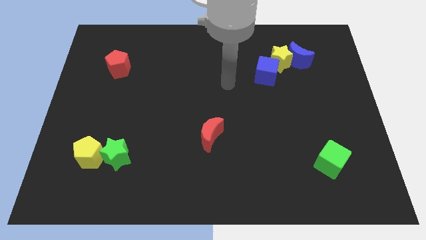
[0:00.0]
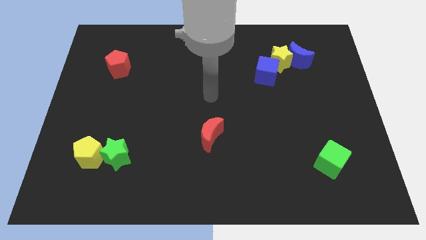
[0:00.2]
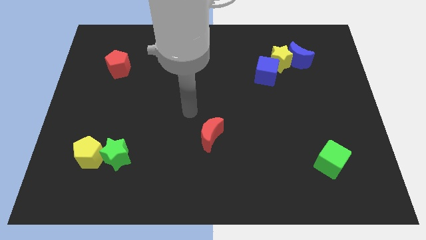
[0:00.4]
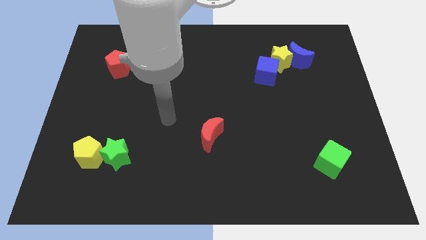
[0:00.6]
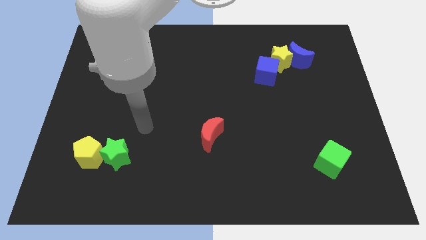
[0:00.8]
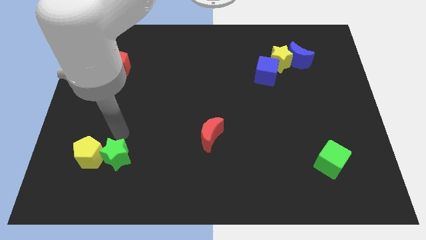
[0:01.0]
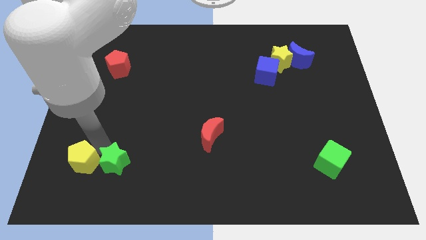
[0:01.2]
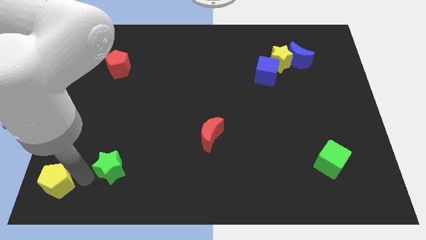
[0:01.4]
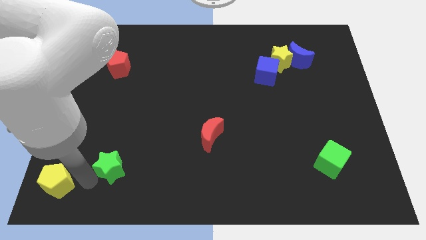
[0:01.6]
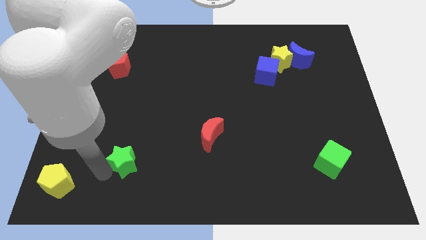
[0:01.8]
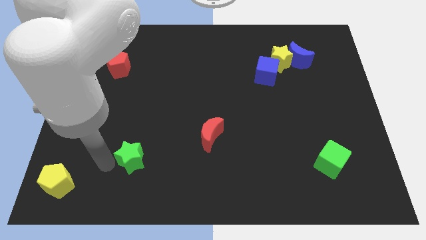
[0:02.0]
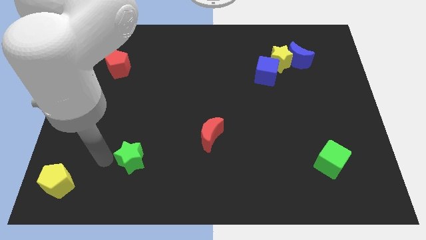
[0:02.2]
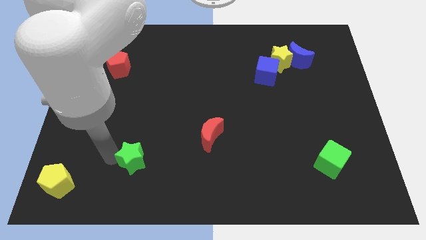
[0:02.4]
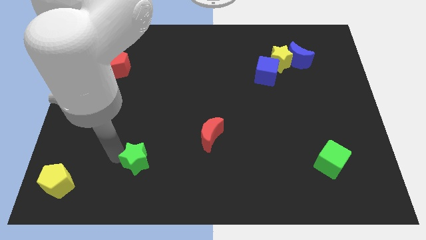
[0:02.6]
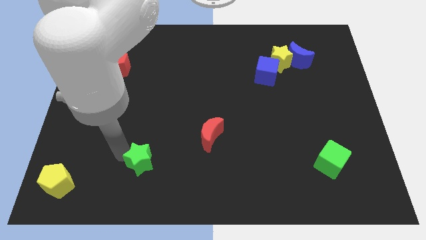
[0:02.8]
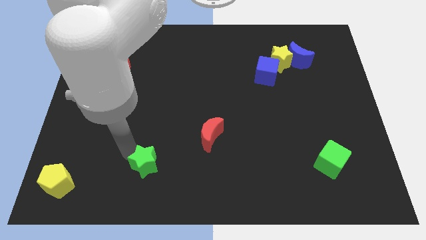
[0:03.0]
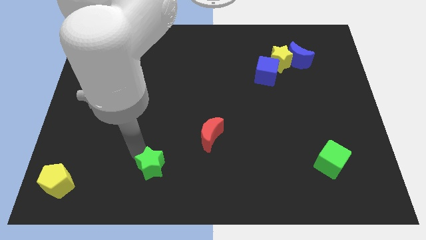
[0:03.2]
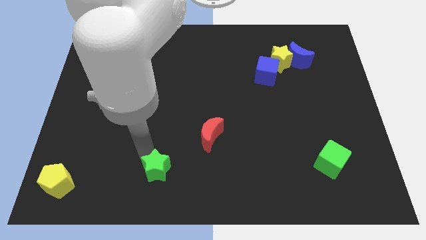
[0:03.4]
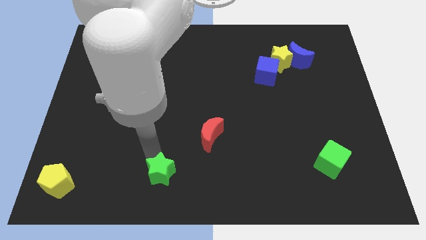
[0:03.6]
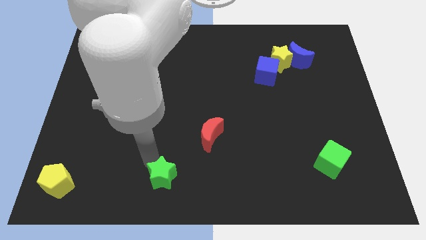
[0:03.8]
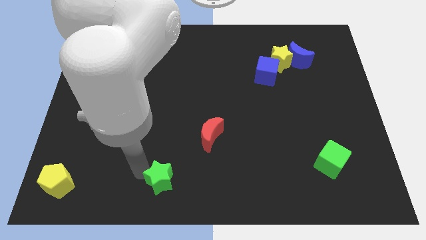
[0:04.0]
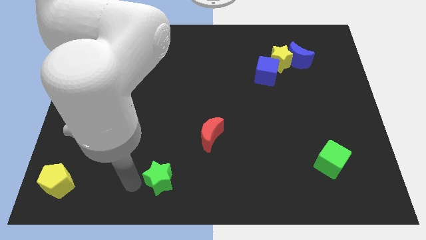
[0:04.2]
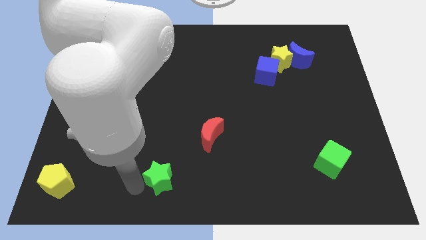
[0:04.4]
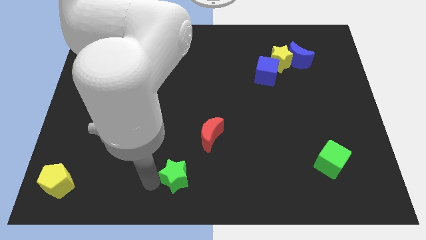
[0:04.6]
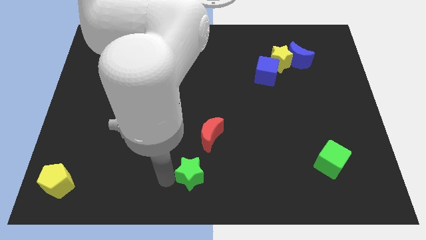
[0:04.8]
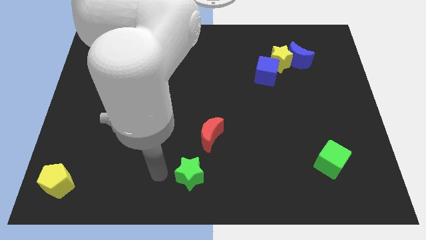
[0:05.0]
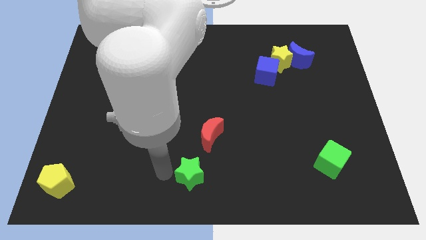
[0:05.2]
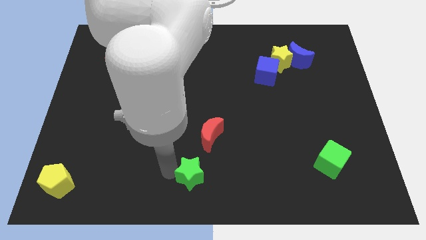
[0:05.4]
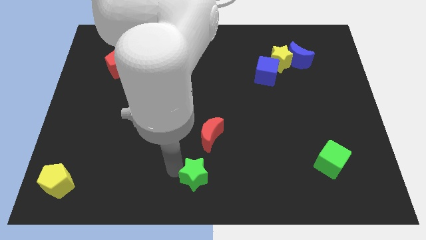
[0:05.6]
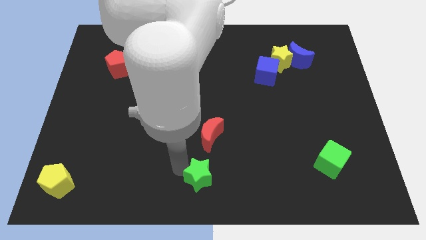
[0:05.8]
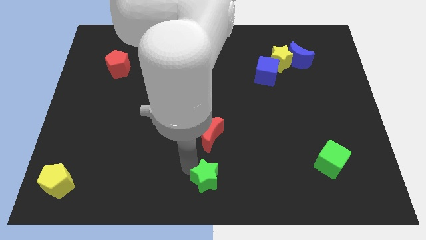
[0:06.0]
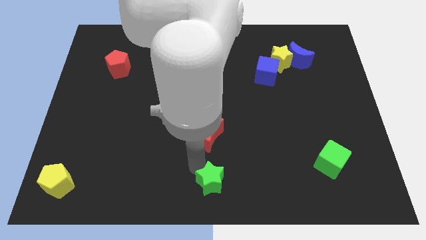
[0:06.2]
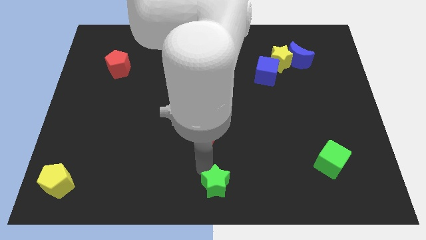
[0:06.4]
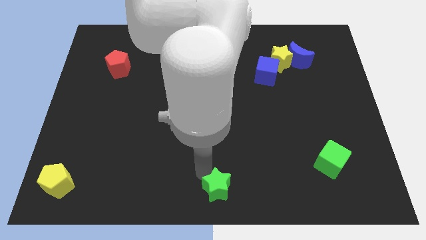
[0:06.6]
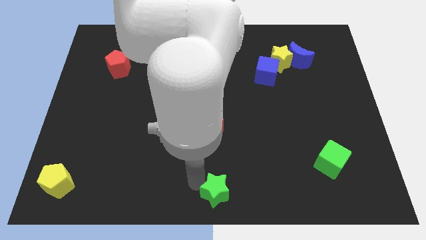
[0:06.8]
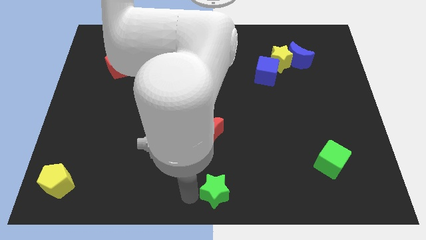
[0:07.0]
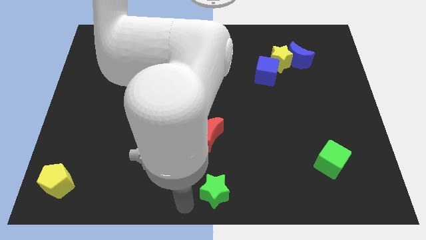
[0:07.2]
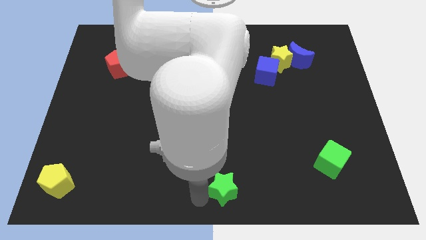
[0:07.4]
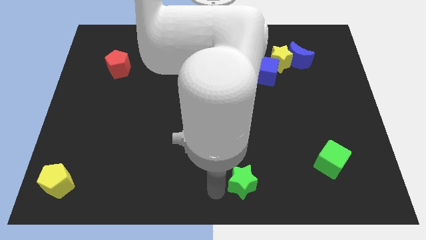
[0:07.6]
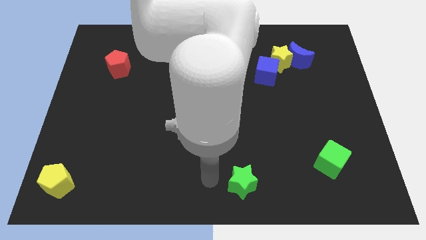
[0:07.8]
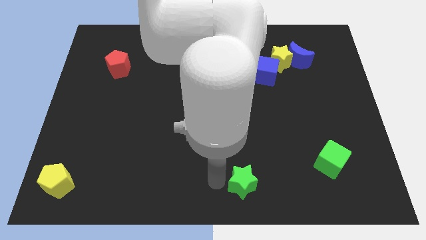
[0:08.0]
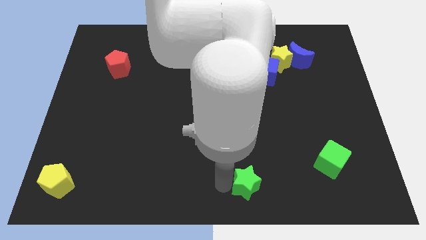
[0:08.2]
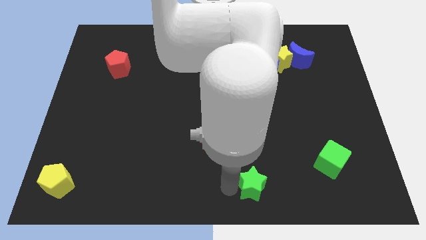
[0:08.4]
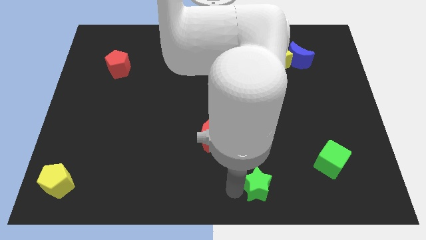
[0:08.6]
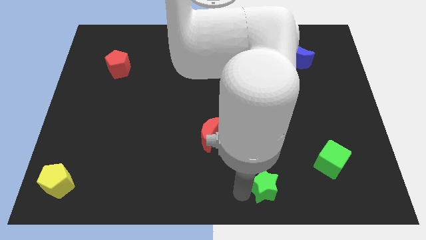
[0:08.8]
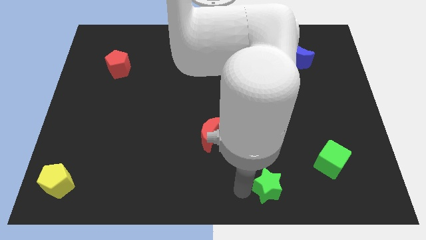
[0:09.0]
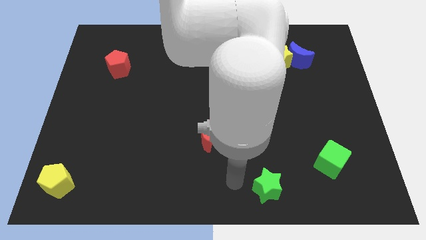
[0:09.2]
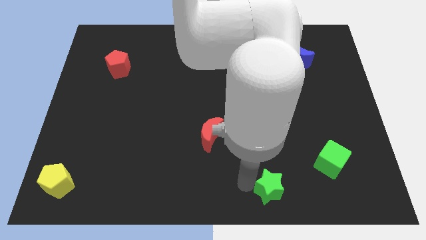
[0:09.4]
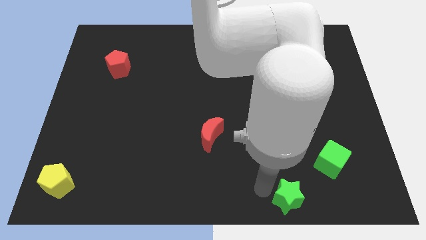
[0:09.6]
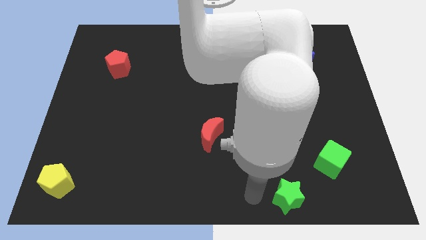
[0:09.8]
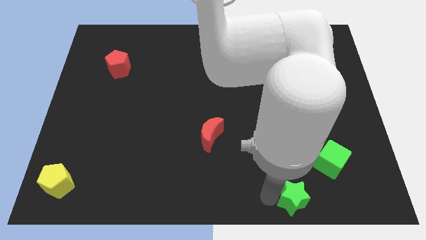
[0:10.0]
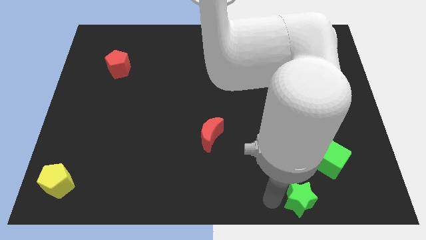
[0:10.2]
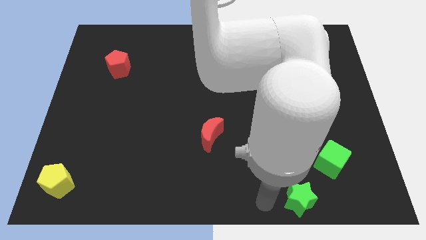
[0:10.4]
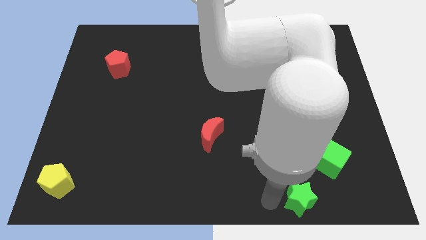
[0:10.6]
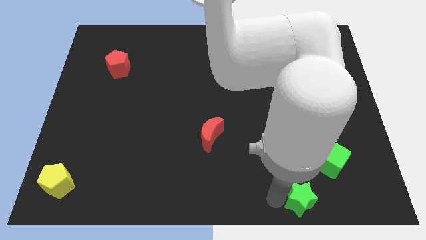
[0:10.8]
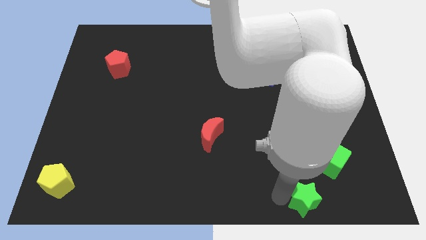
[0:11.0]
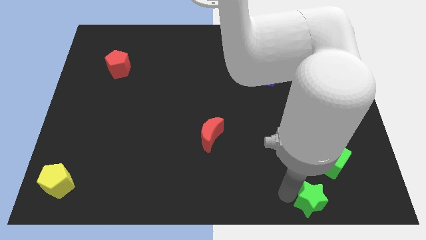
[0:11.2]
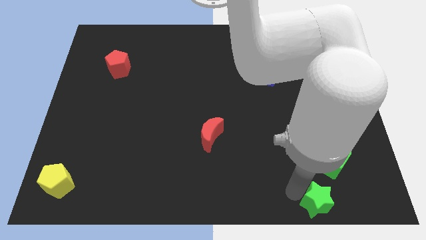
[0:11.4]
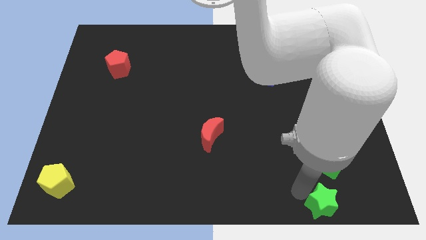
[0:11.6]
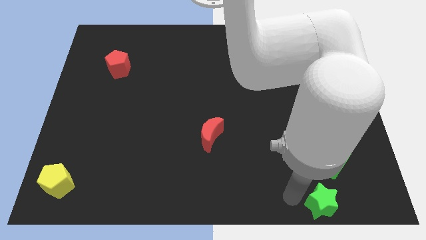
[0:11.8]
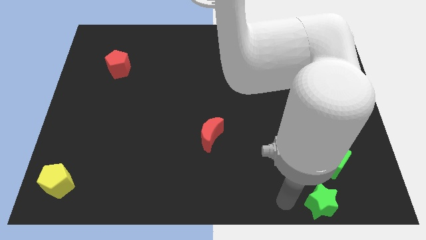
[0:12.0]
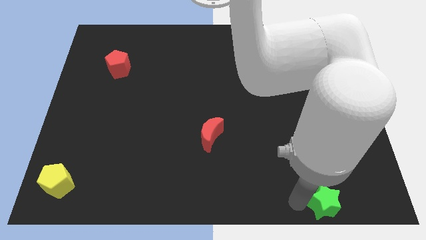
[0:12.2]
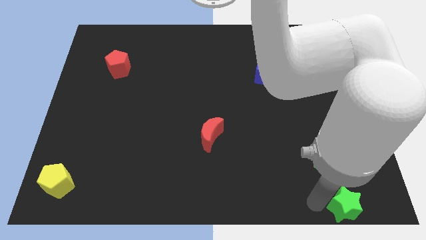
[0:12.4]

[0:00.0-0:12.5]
move the green star to the bottom right

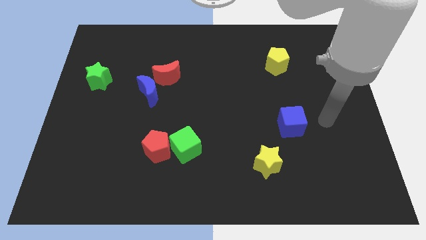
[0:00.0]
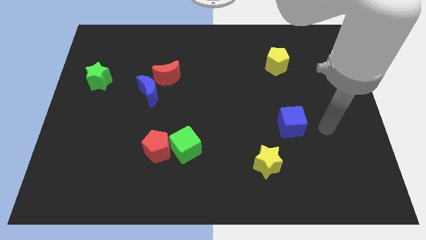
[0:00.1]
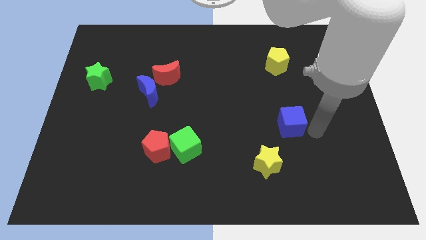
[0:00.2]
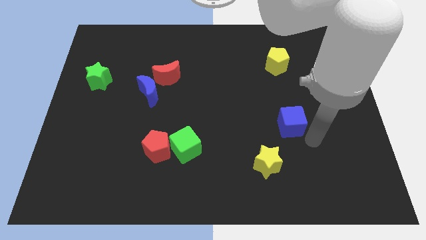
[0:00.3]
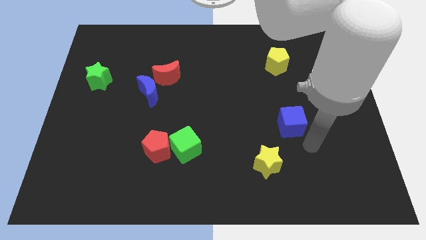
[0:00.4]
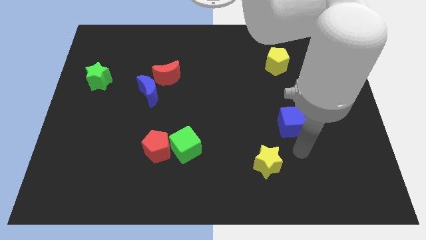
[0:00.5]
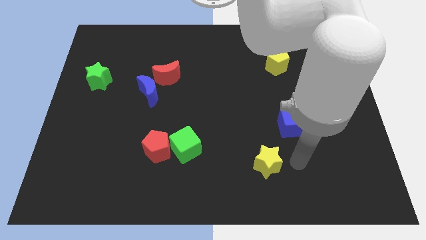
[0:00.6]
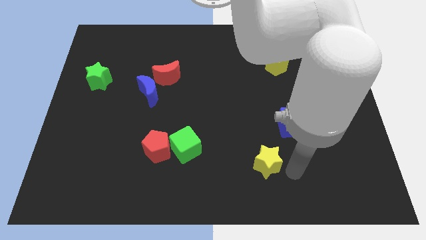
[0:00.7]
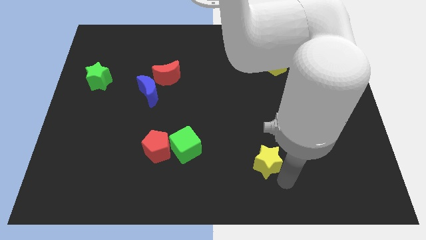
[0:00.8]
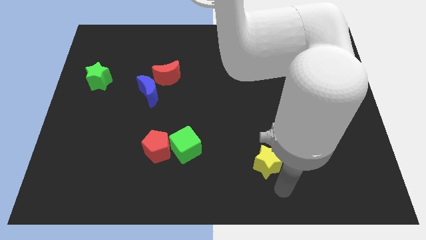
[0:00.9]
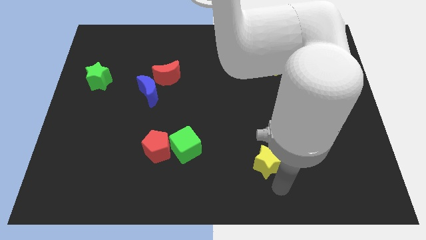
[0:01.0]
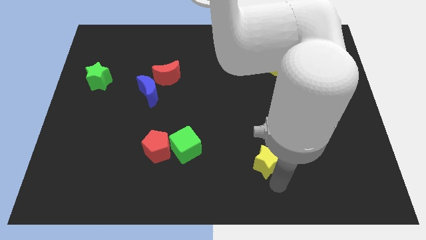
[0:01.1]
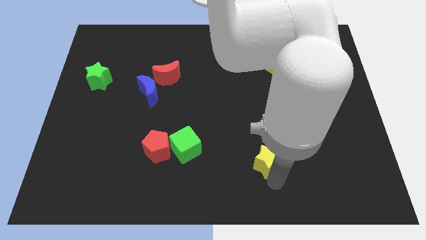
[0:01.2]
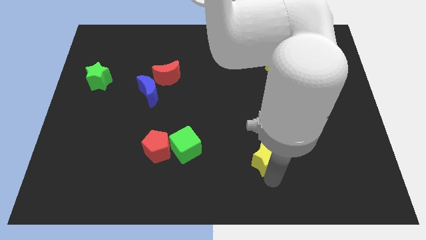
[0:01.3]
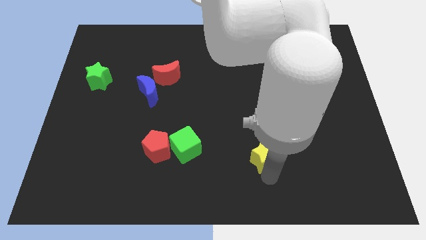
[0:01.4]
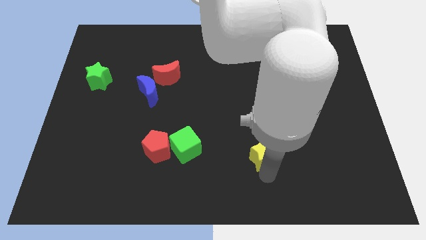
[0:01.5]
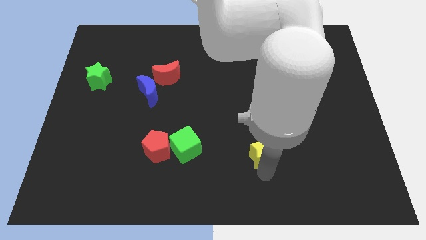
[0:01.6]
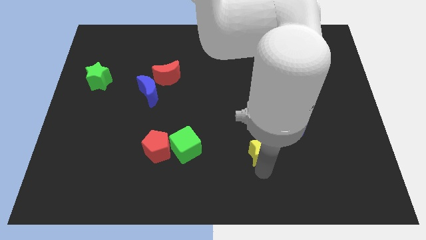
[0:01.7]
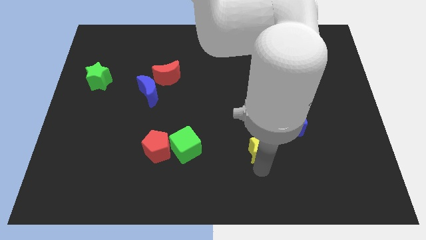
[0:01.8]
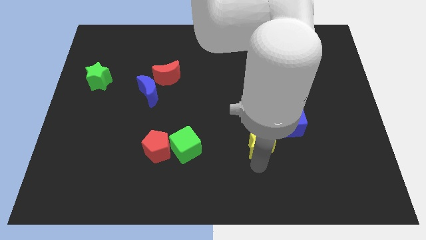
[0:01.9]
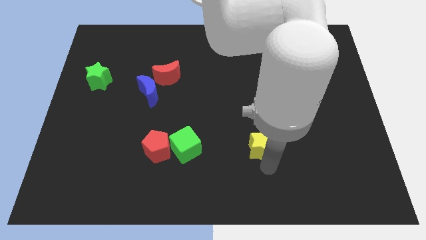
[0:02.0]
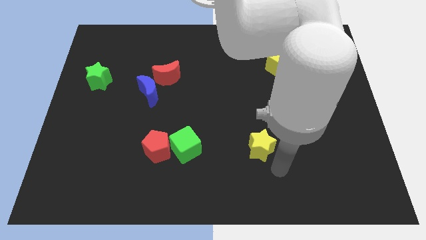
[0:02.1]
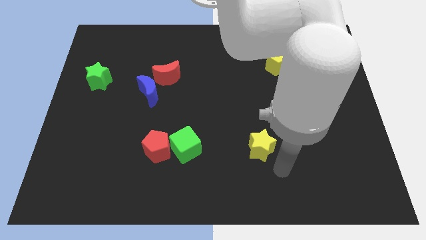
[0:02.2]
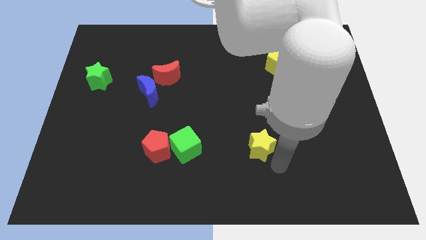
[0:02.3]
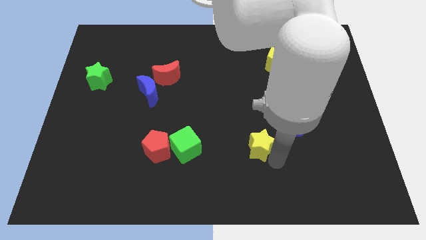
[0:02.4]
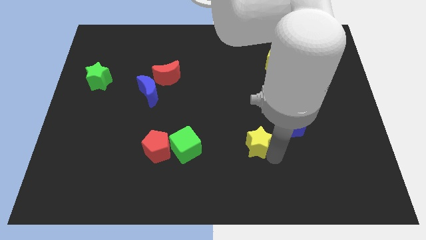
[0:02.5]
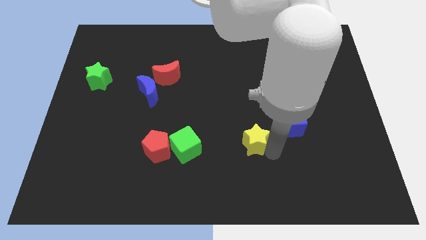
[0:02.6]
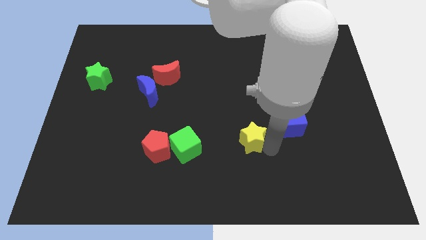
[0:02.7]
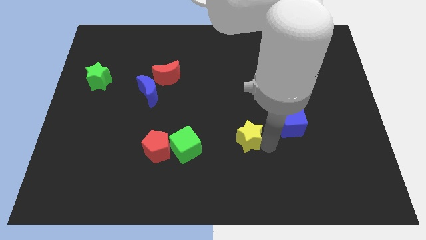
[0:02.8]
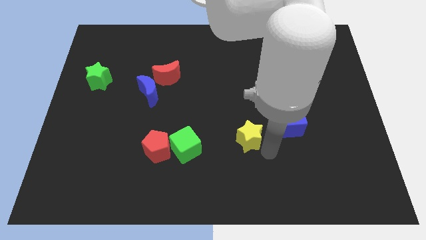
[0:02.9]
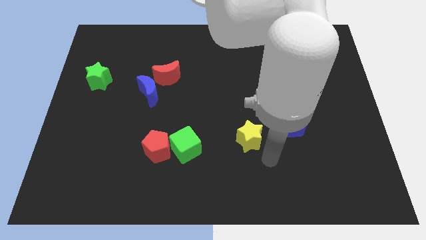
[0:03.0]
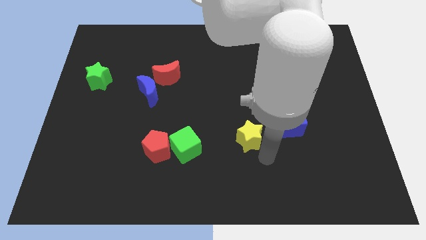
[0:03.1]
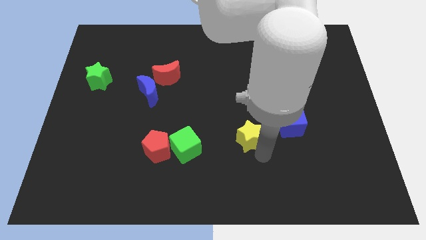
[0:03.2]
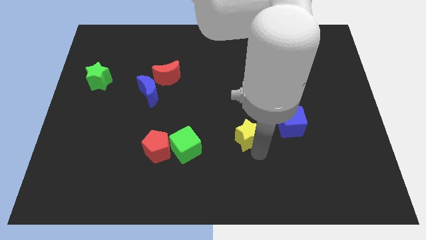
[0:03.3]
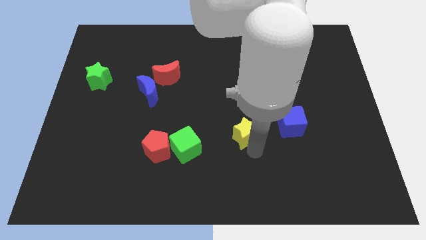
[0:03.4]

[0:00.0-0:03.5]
move the yellow star to the middle
